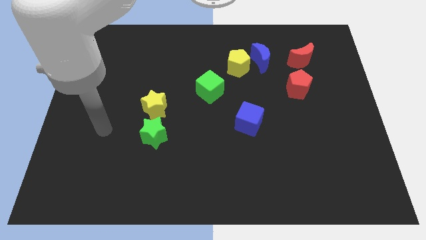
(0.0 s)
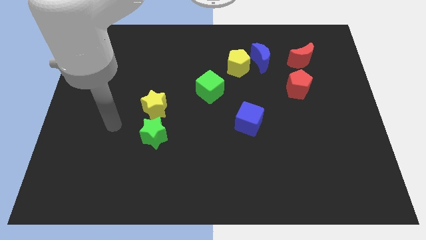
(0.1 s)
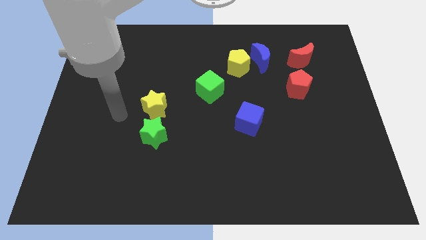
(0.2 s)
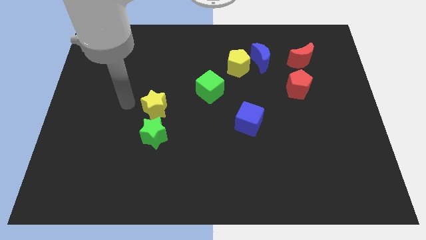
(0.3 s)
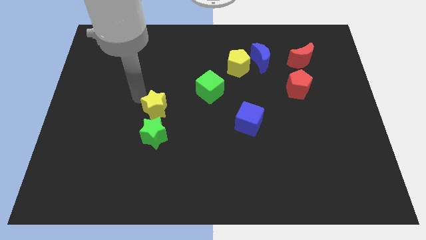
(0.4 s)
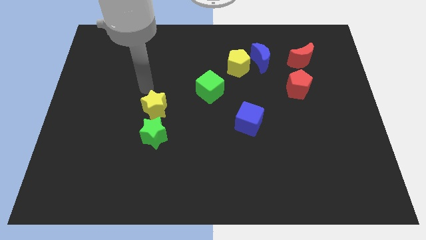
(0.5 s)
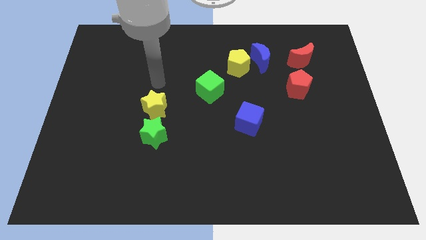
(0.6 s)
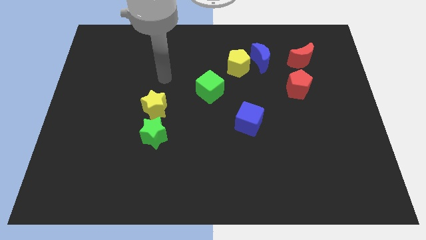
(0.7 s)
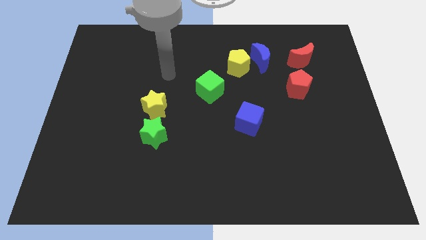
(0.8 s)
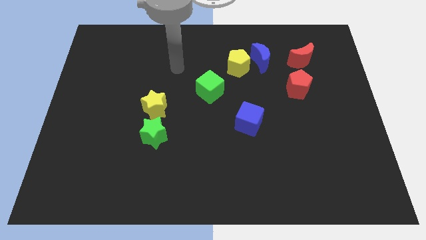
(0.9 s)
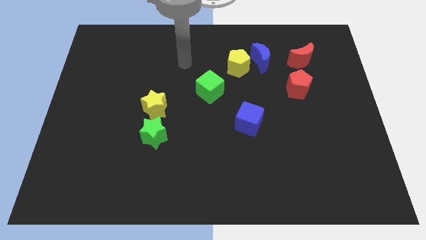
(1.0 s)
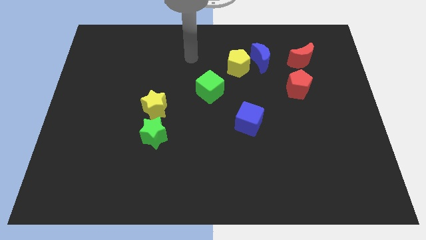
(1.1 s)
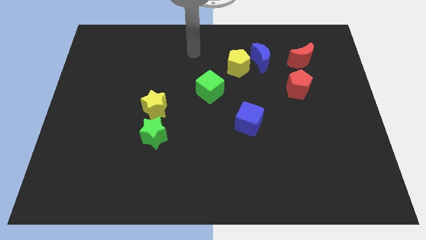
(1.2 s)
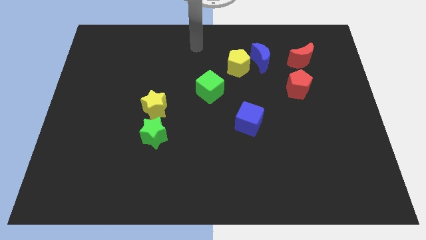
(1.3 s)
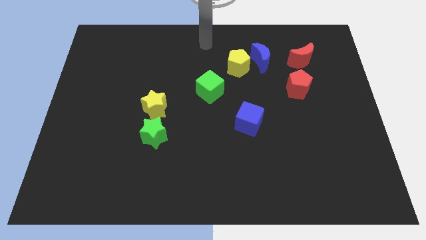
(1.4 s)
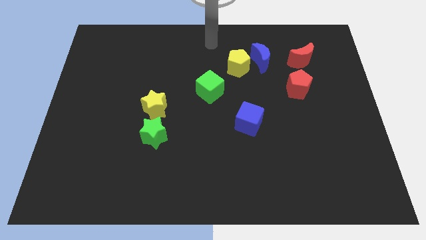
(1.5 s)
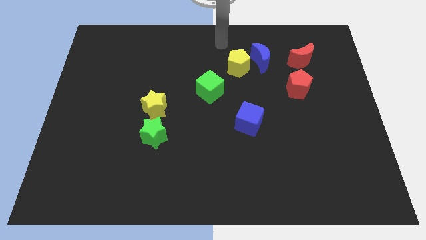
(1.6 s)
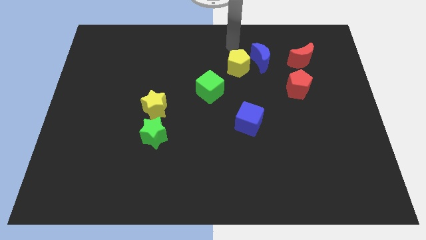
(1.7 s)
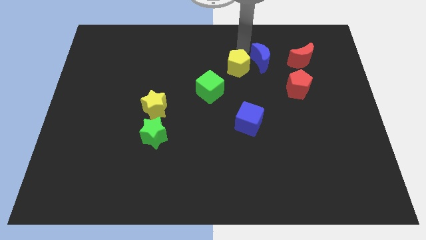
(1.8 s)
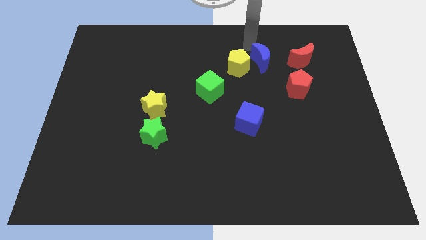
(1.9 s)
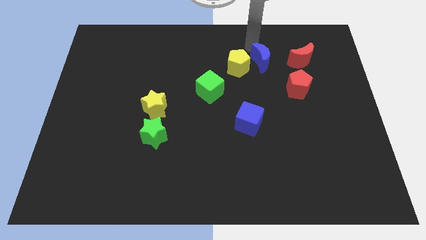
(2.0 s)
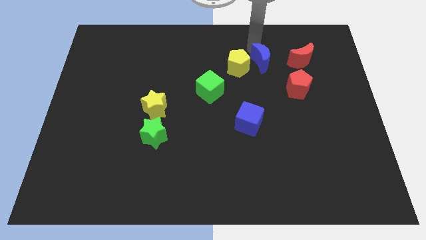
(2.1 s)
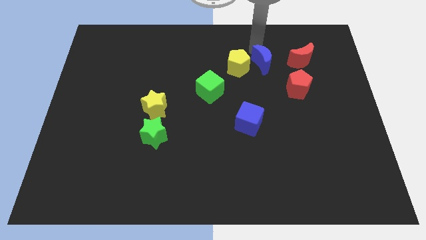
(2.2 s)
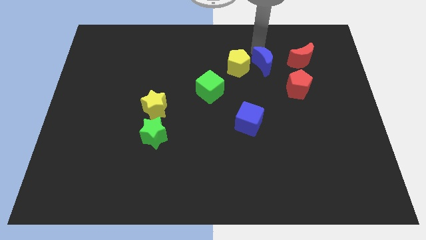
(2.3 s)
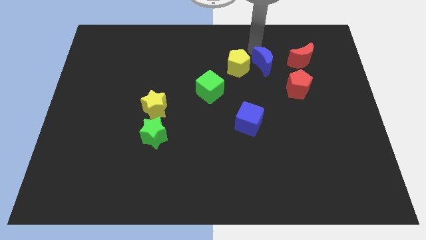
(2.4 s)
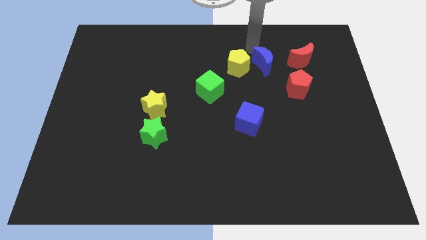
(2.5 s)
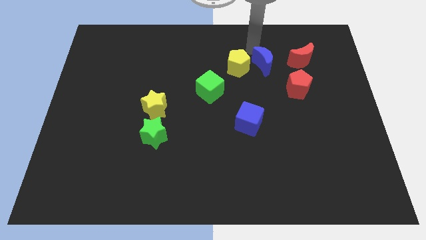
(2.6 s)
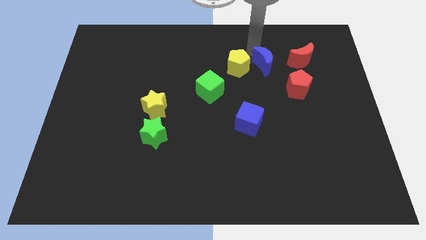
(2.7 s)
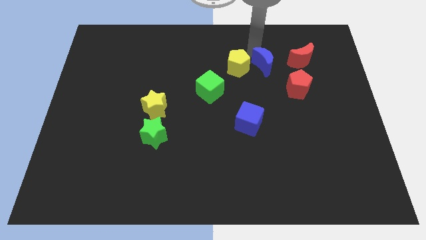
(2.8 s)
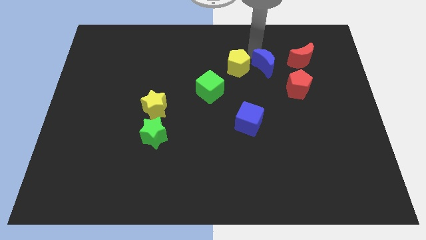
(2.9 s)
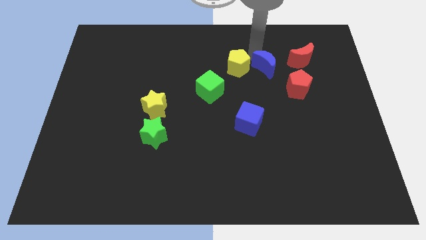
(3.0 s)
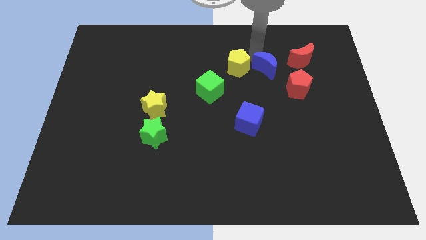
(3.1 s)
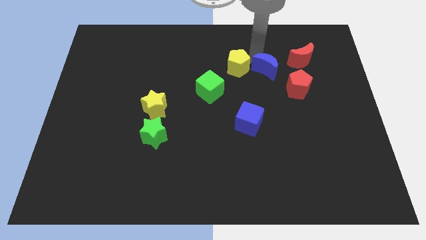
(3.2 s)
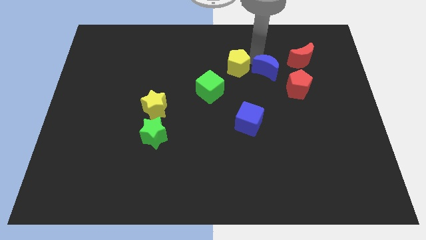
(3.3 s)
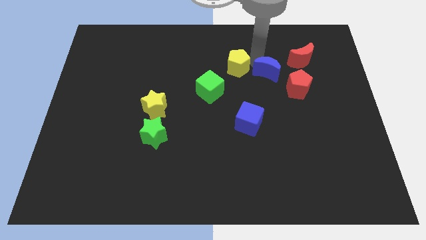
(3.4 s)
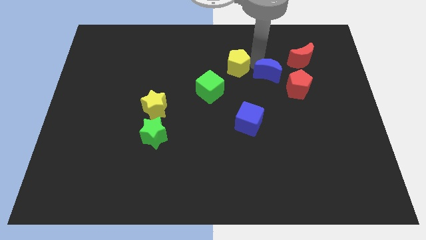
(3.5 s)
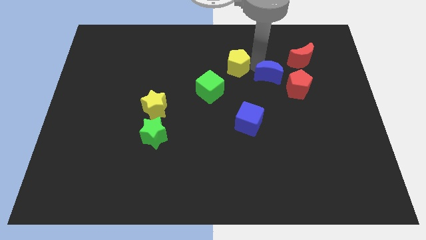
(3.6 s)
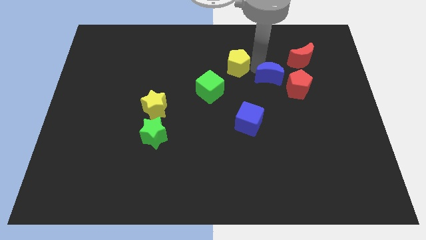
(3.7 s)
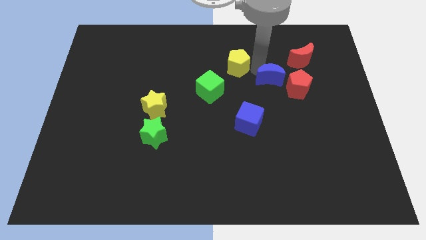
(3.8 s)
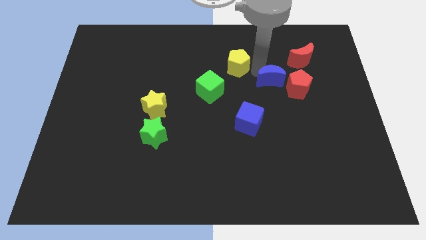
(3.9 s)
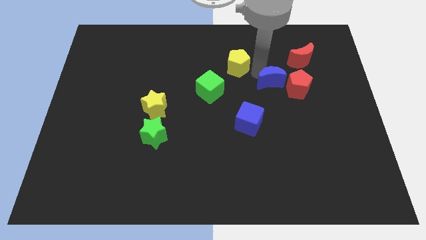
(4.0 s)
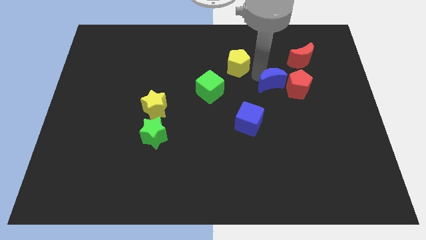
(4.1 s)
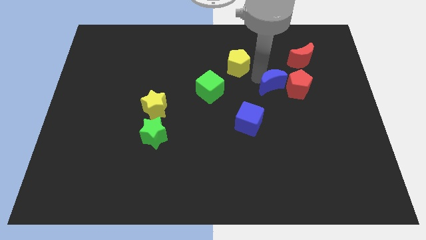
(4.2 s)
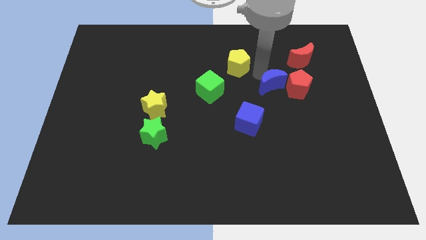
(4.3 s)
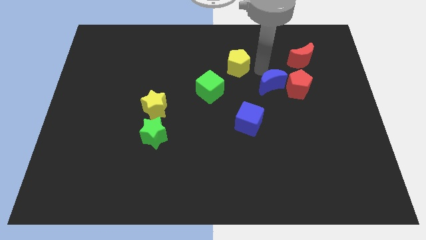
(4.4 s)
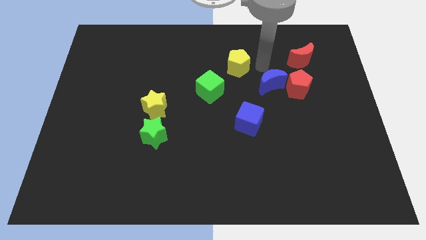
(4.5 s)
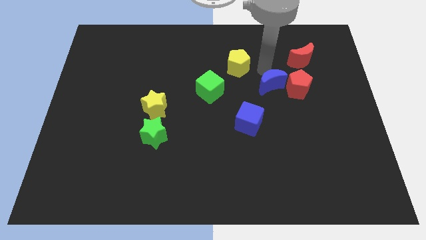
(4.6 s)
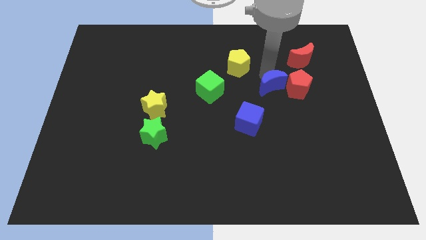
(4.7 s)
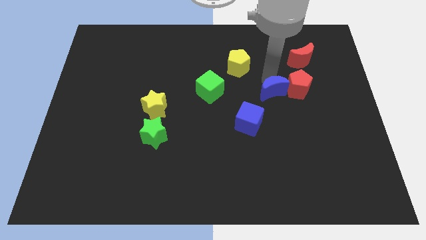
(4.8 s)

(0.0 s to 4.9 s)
put the blue moon diagonally down and to the left of the red pentagon

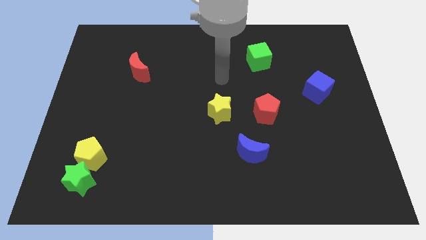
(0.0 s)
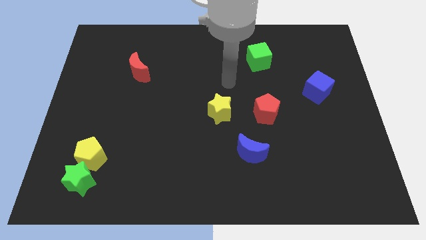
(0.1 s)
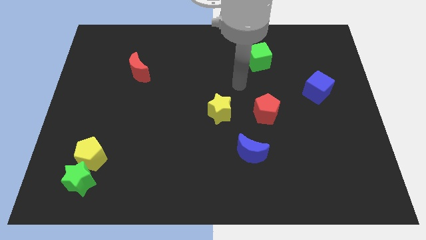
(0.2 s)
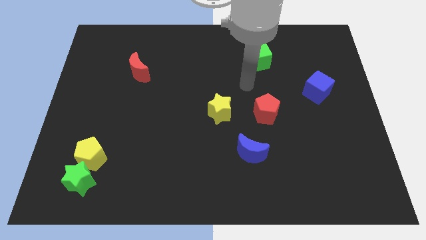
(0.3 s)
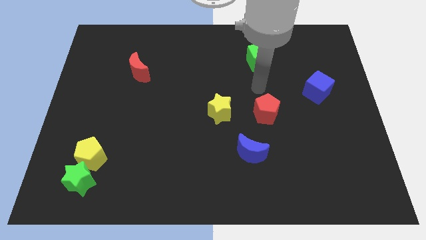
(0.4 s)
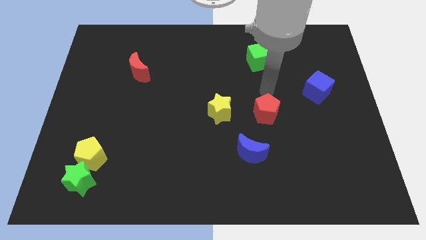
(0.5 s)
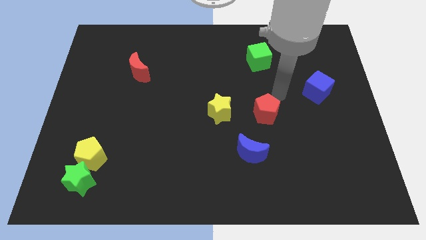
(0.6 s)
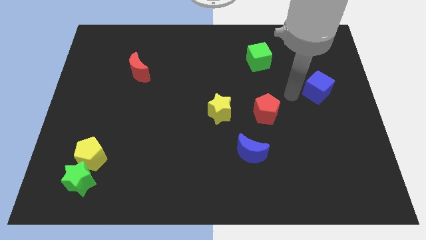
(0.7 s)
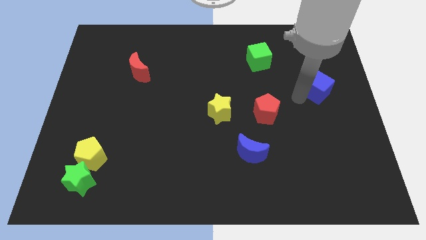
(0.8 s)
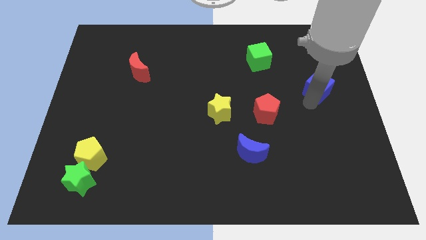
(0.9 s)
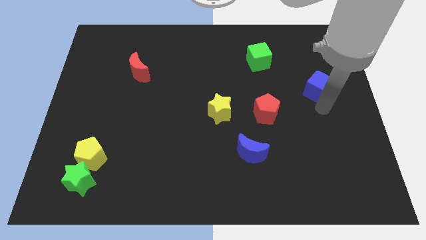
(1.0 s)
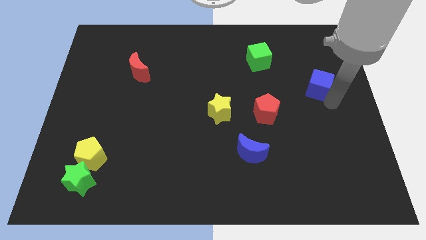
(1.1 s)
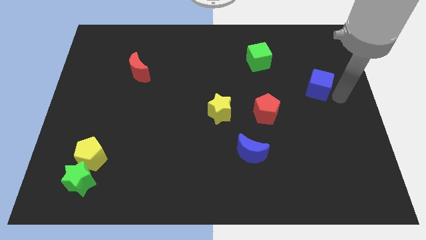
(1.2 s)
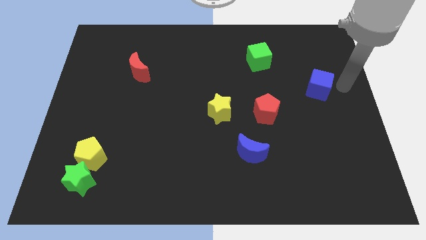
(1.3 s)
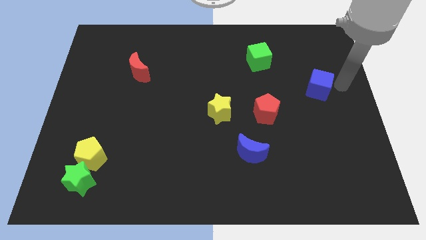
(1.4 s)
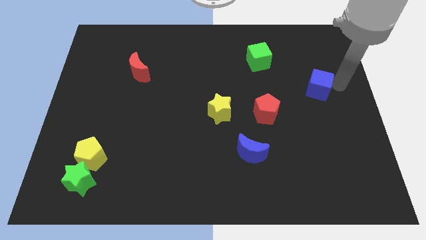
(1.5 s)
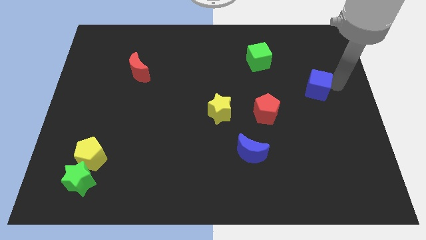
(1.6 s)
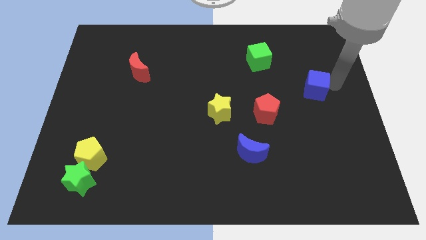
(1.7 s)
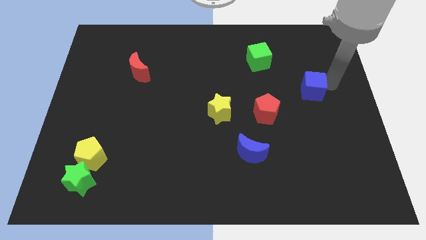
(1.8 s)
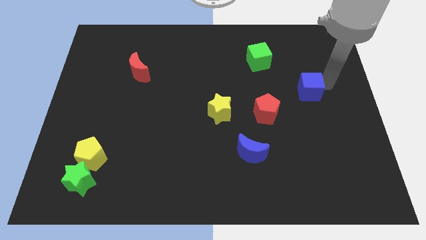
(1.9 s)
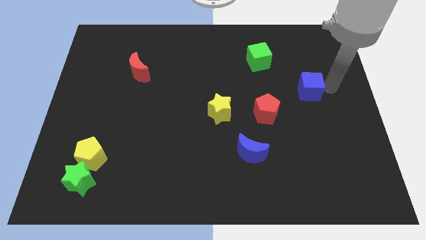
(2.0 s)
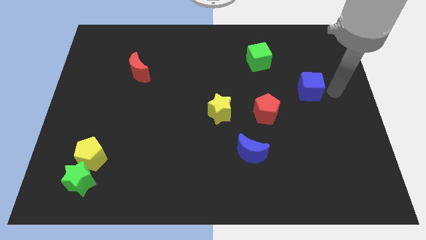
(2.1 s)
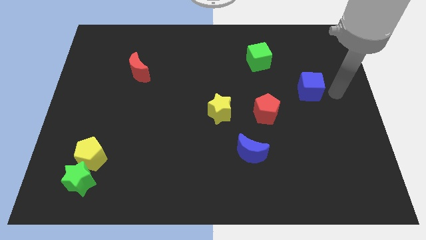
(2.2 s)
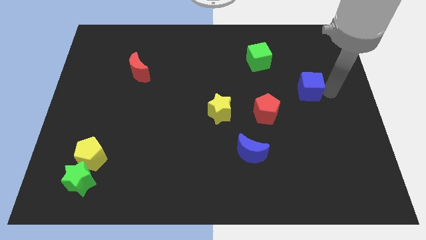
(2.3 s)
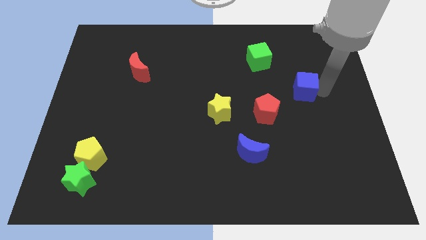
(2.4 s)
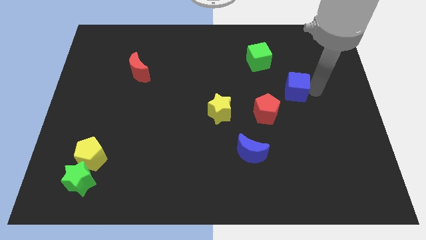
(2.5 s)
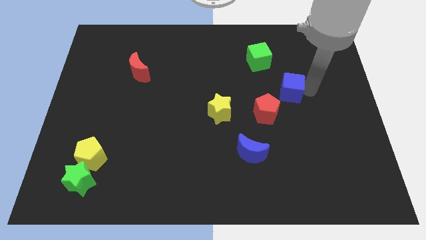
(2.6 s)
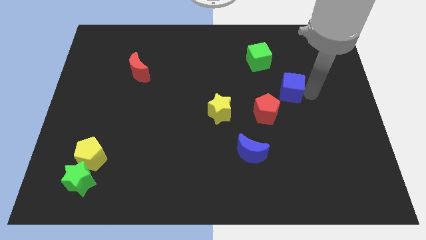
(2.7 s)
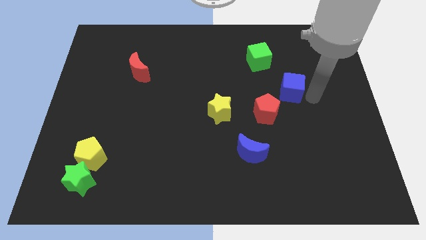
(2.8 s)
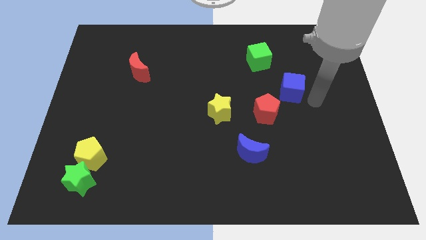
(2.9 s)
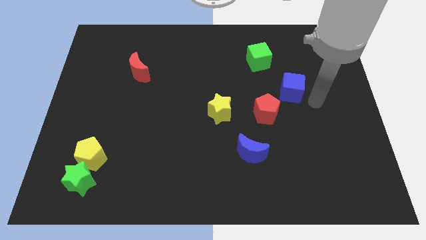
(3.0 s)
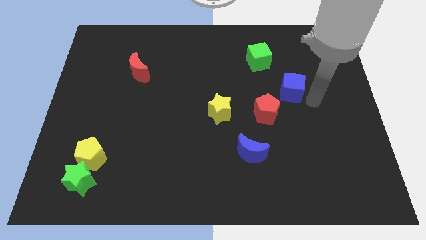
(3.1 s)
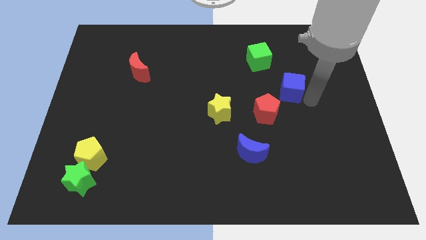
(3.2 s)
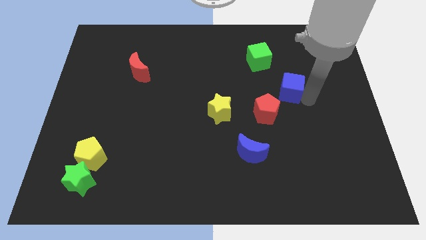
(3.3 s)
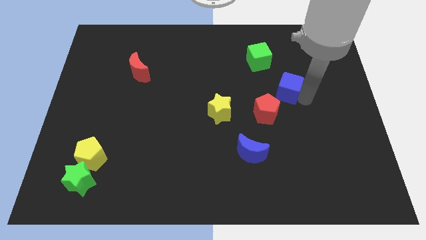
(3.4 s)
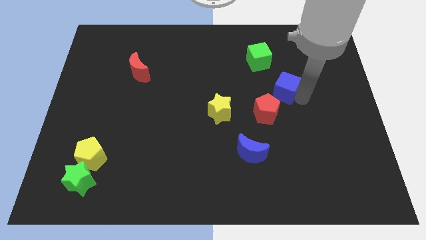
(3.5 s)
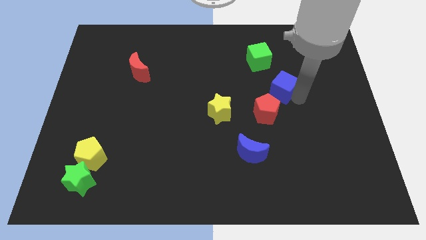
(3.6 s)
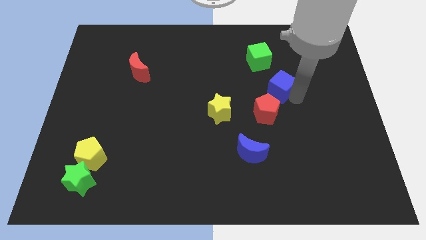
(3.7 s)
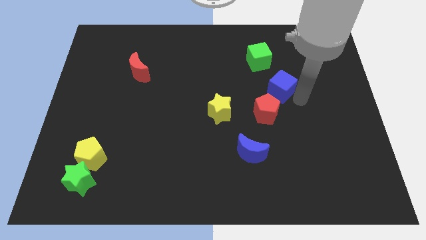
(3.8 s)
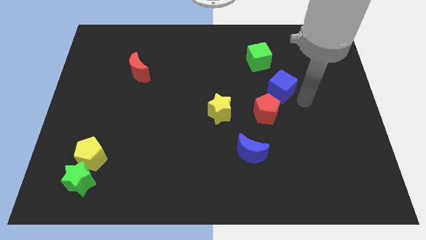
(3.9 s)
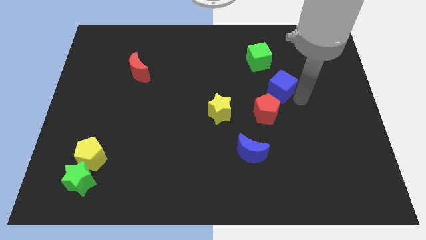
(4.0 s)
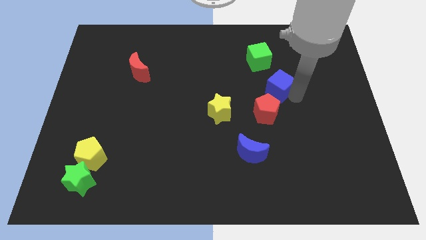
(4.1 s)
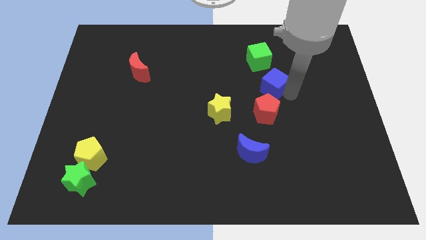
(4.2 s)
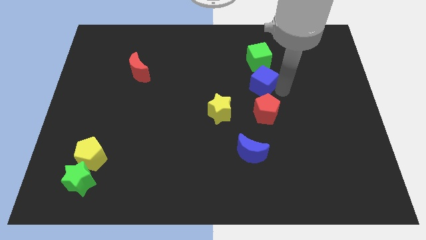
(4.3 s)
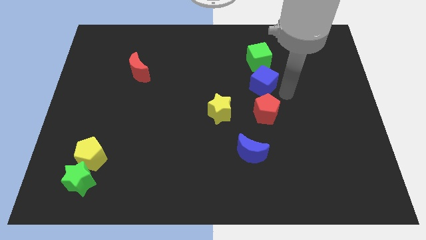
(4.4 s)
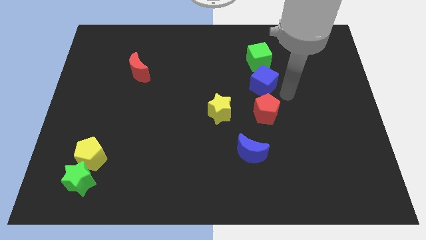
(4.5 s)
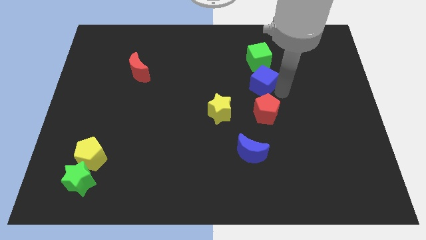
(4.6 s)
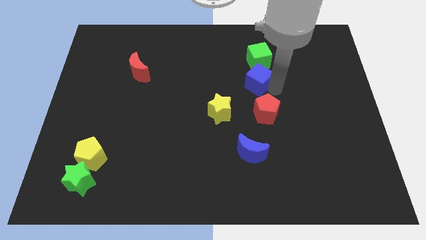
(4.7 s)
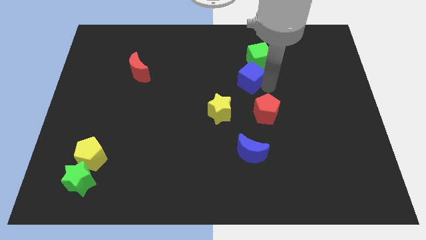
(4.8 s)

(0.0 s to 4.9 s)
put the blue cube diagonally down and to the left of the green cube
